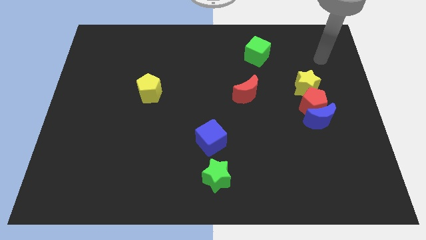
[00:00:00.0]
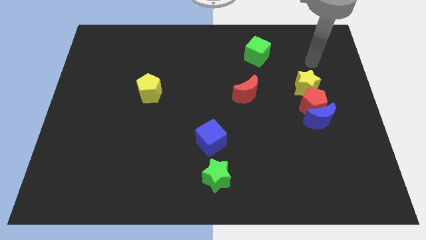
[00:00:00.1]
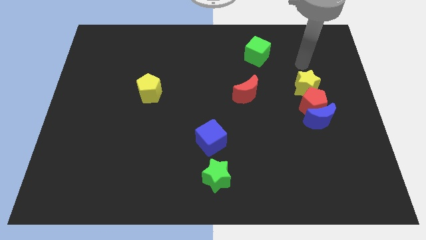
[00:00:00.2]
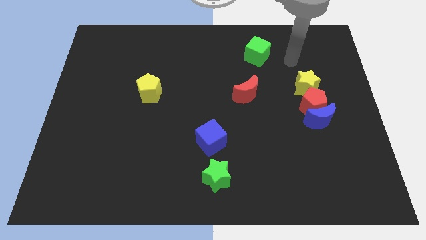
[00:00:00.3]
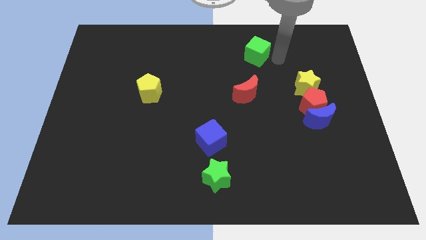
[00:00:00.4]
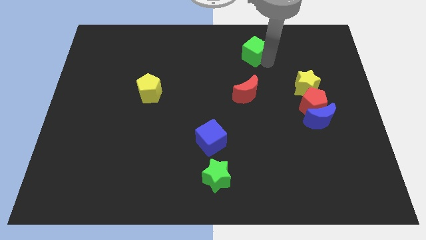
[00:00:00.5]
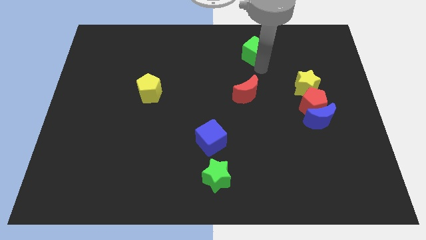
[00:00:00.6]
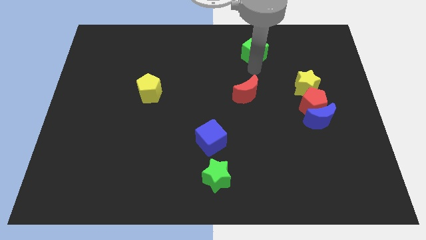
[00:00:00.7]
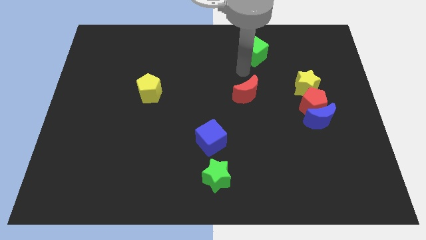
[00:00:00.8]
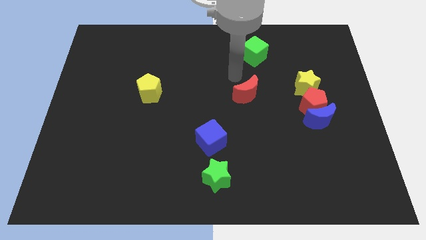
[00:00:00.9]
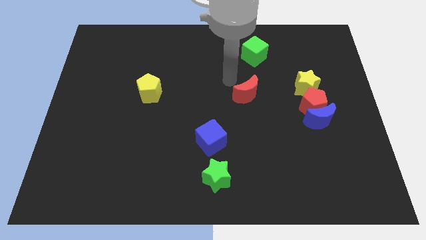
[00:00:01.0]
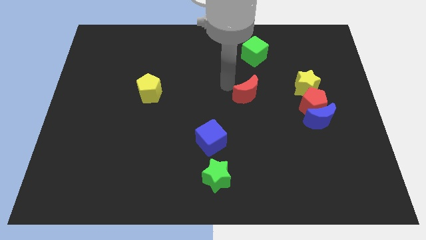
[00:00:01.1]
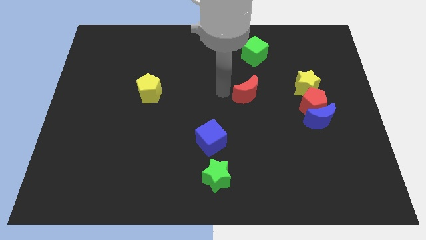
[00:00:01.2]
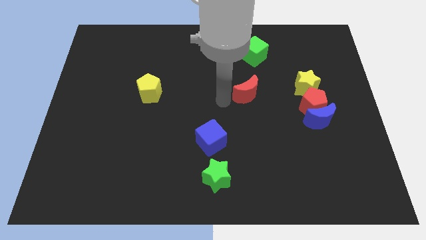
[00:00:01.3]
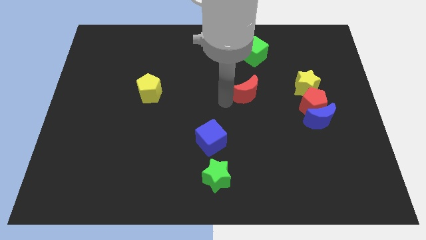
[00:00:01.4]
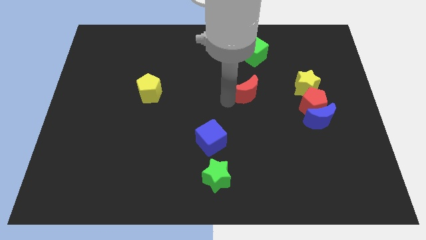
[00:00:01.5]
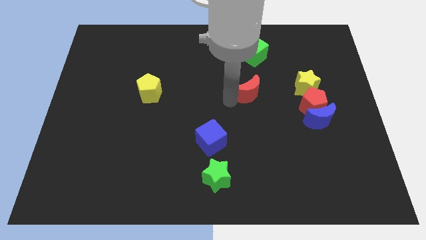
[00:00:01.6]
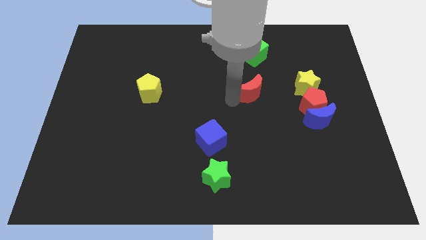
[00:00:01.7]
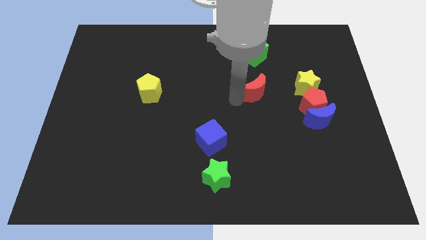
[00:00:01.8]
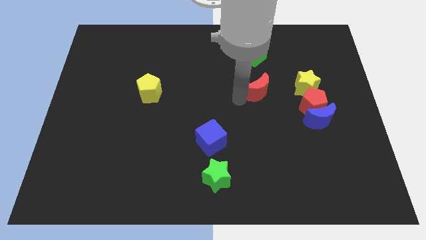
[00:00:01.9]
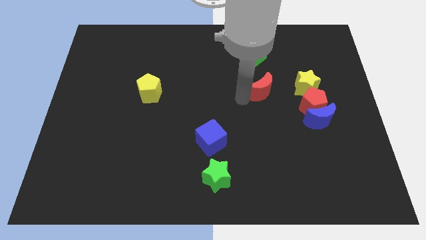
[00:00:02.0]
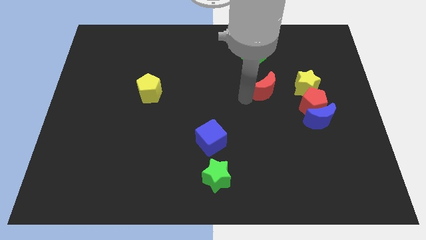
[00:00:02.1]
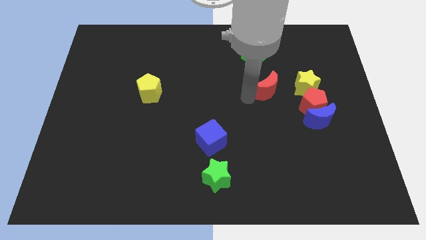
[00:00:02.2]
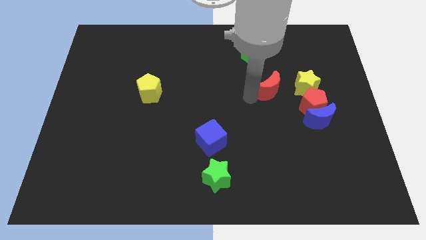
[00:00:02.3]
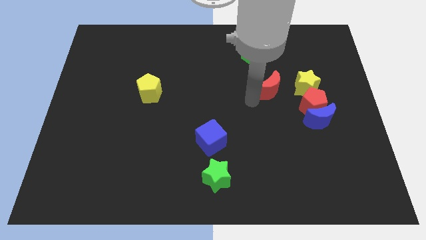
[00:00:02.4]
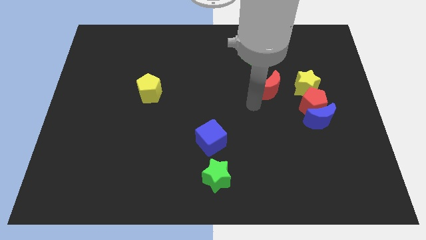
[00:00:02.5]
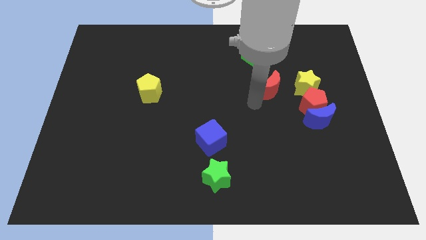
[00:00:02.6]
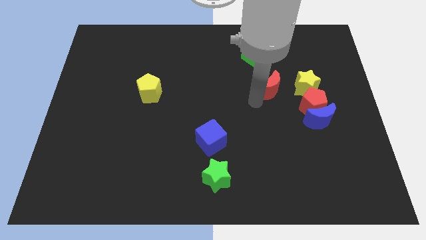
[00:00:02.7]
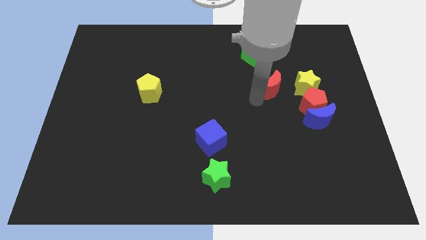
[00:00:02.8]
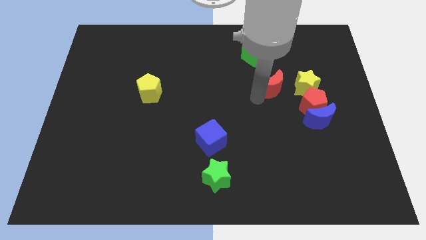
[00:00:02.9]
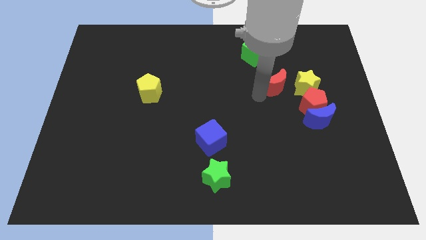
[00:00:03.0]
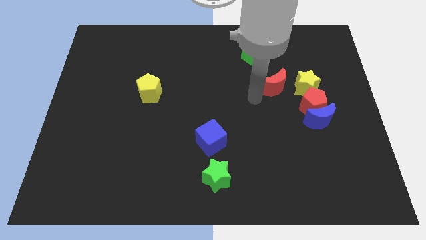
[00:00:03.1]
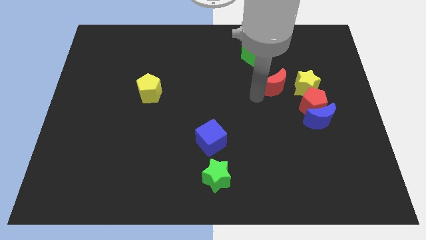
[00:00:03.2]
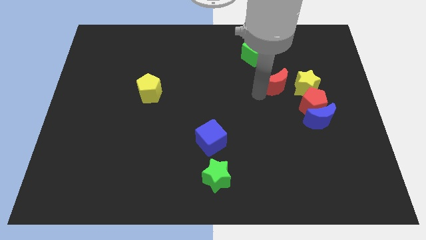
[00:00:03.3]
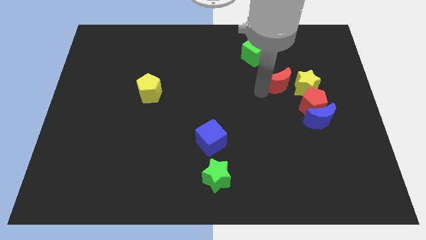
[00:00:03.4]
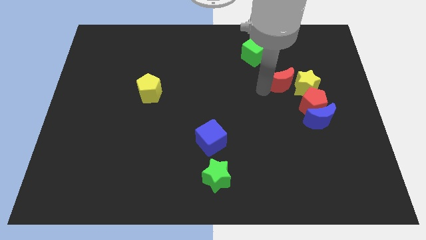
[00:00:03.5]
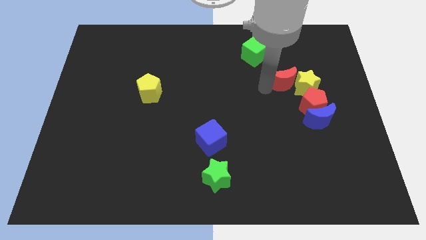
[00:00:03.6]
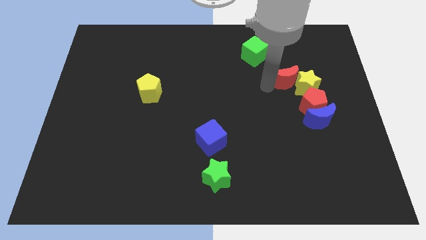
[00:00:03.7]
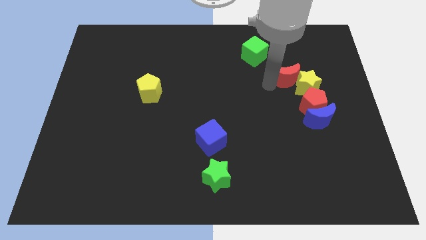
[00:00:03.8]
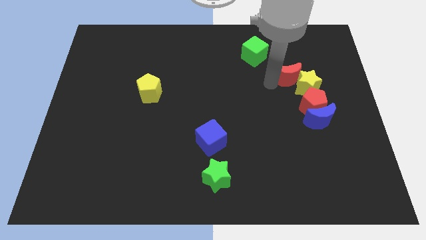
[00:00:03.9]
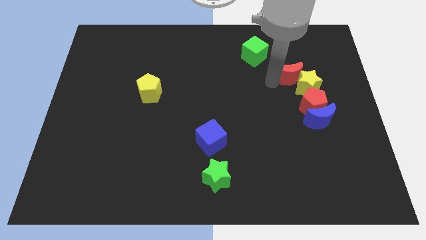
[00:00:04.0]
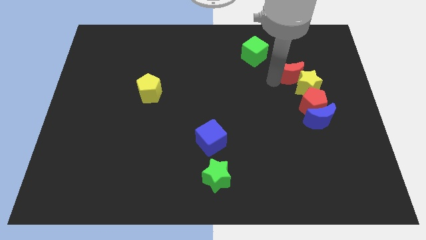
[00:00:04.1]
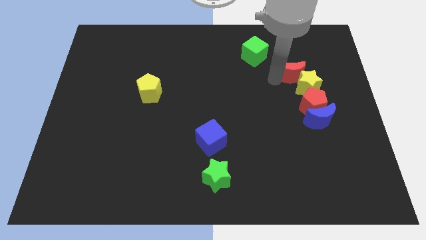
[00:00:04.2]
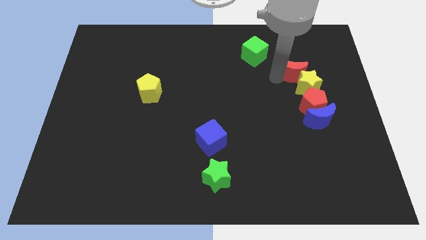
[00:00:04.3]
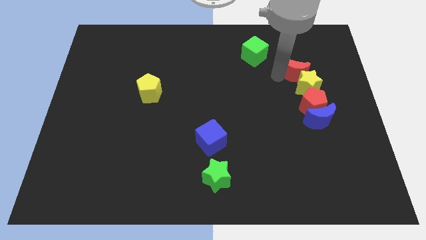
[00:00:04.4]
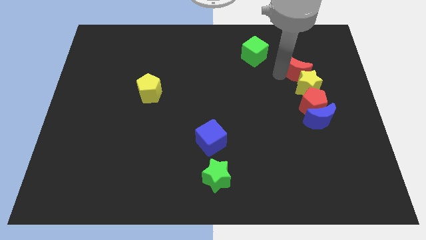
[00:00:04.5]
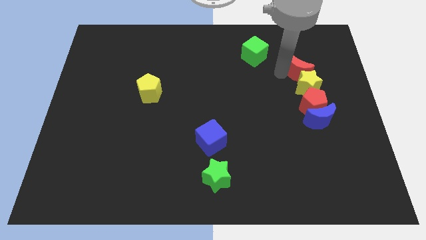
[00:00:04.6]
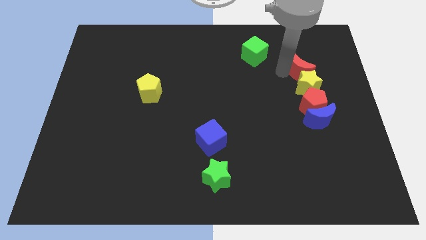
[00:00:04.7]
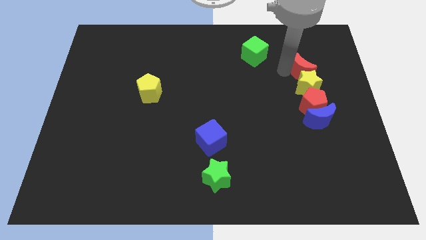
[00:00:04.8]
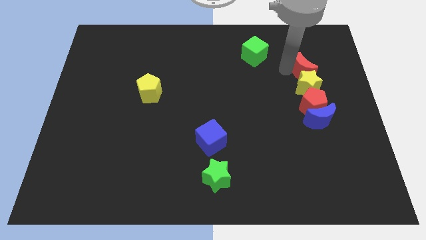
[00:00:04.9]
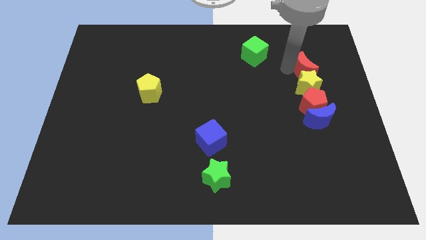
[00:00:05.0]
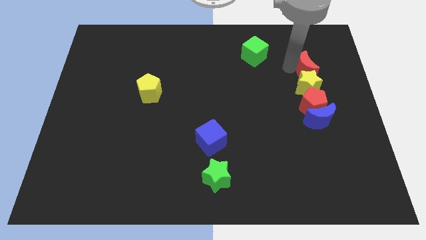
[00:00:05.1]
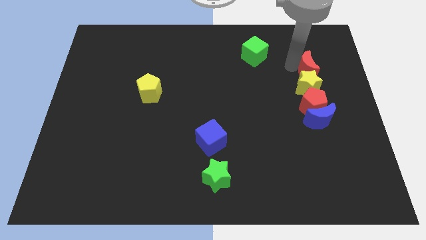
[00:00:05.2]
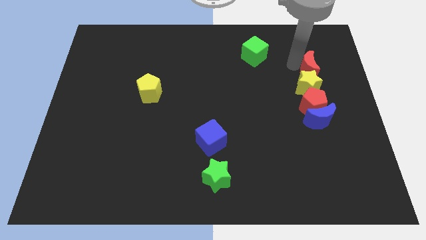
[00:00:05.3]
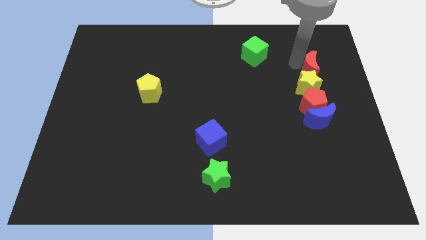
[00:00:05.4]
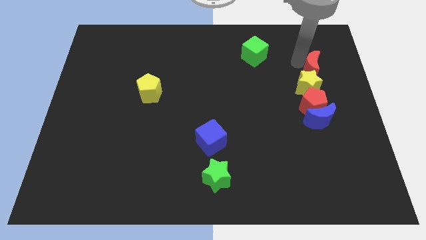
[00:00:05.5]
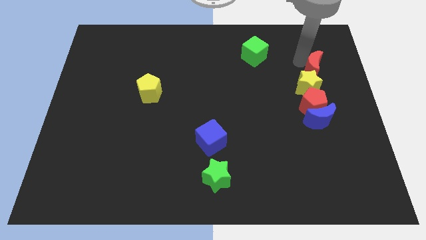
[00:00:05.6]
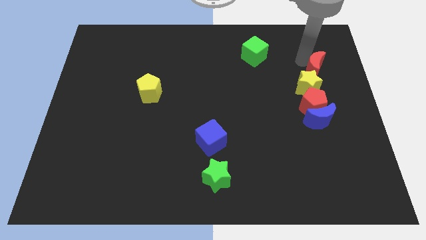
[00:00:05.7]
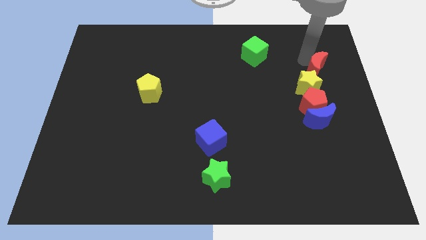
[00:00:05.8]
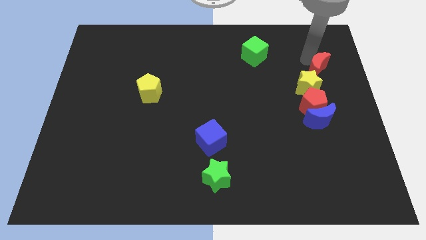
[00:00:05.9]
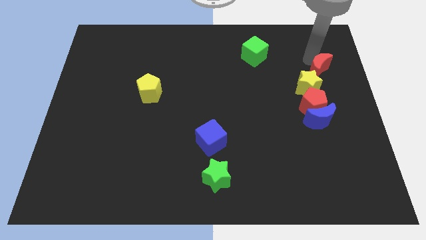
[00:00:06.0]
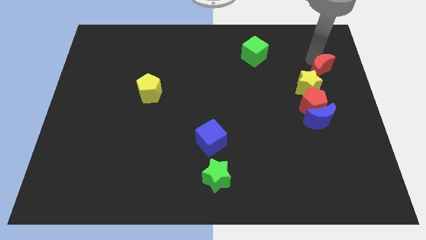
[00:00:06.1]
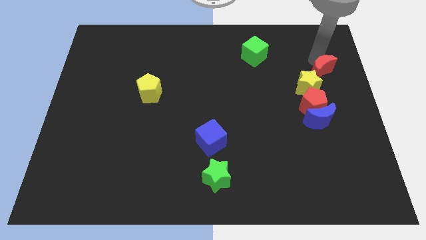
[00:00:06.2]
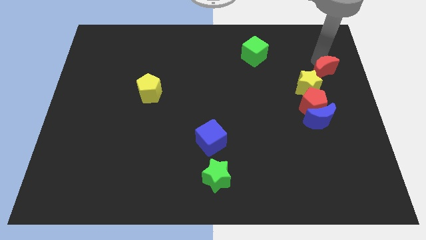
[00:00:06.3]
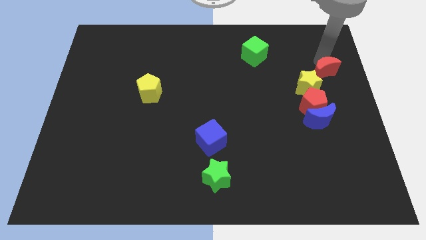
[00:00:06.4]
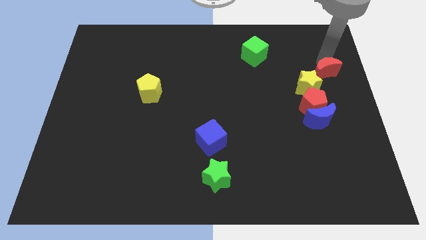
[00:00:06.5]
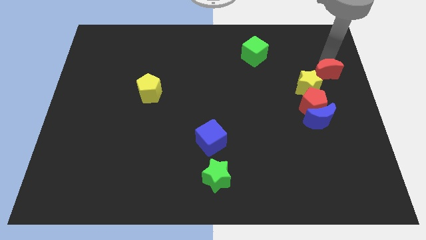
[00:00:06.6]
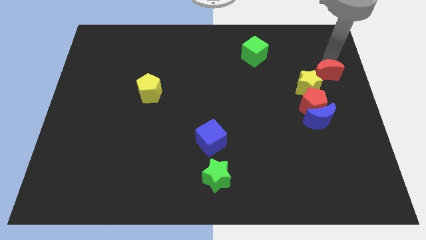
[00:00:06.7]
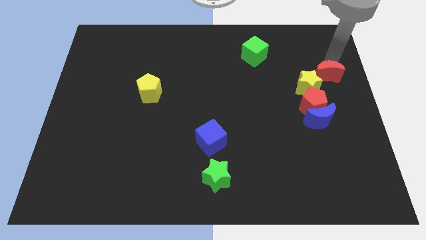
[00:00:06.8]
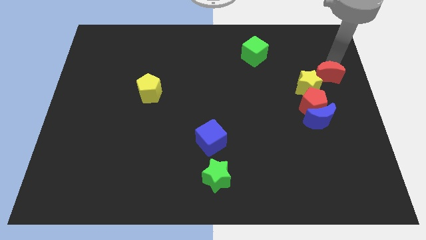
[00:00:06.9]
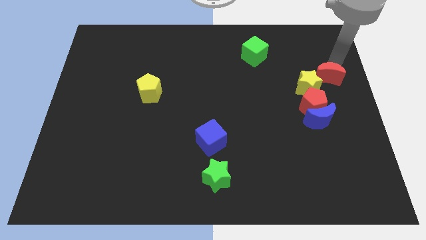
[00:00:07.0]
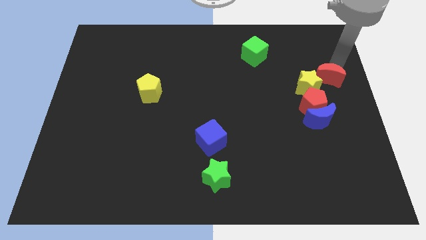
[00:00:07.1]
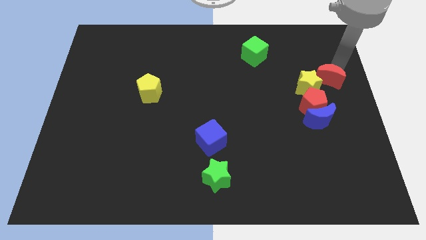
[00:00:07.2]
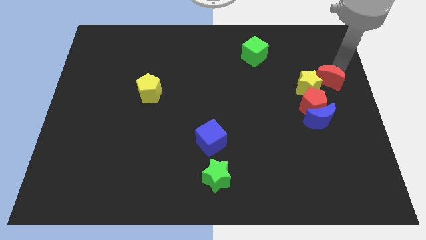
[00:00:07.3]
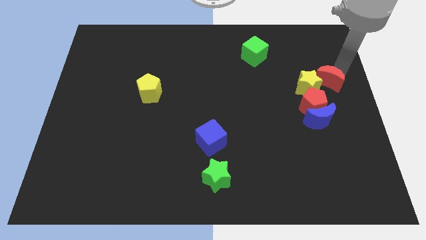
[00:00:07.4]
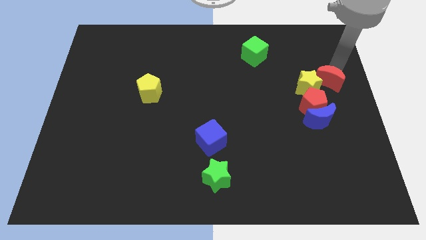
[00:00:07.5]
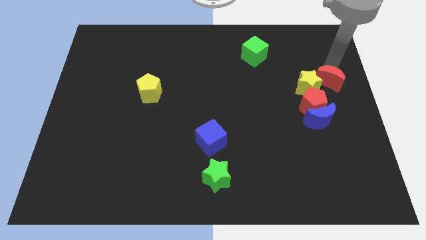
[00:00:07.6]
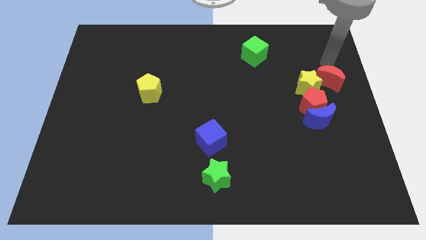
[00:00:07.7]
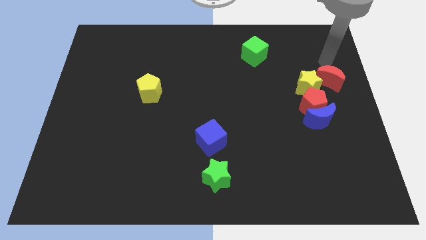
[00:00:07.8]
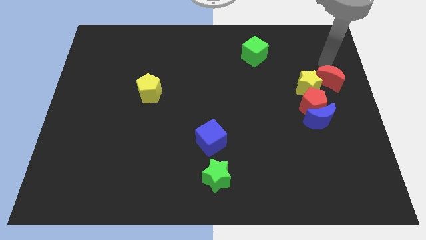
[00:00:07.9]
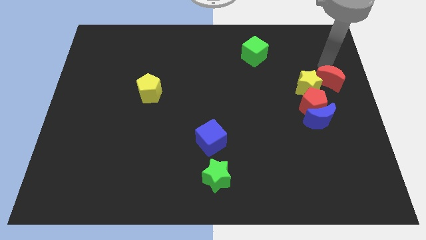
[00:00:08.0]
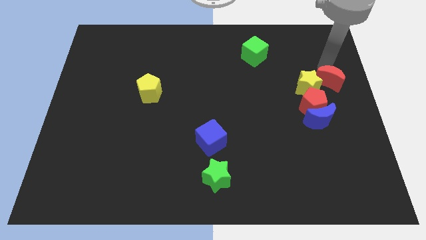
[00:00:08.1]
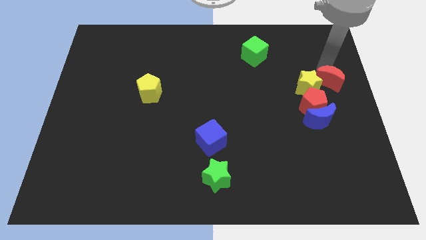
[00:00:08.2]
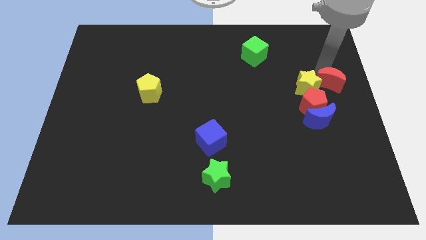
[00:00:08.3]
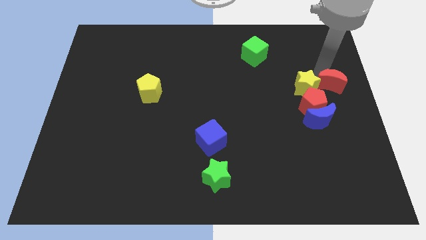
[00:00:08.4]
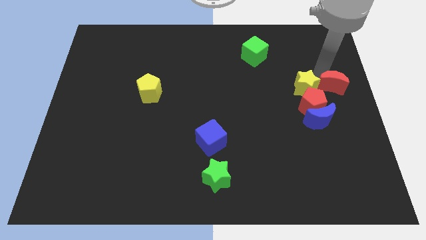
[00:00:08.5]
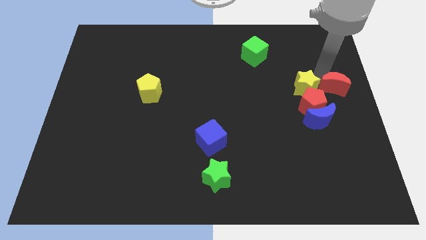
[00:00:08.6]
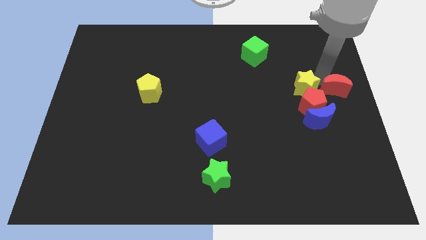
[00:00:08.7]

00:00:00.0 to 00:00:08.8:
move the red moon diagonally down and to the right of the yellow star
